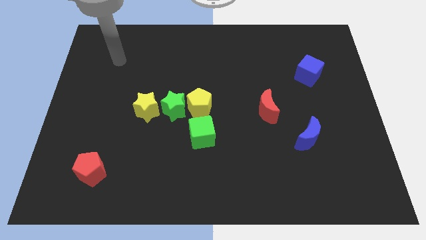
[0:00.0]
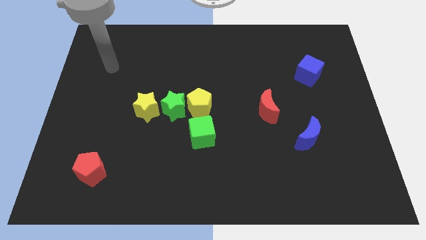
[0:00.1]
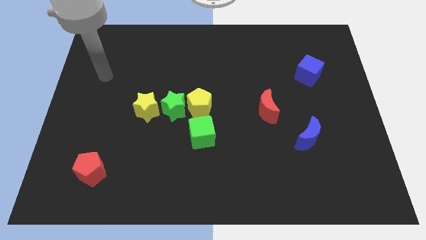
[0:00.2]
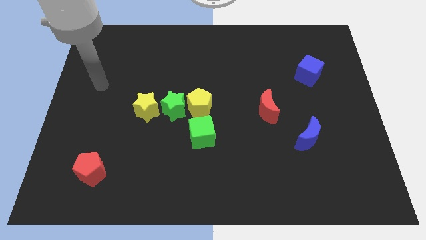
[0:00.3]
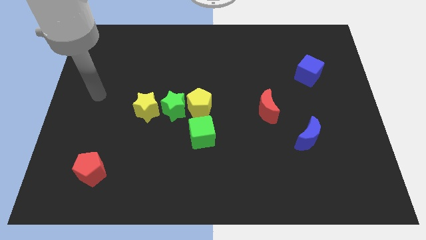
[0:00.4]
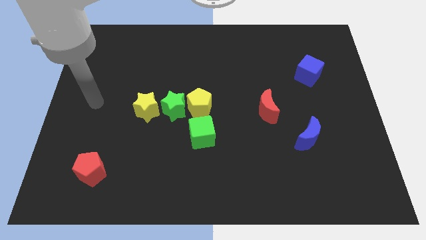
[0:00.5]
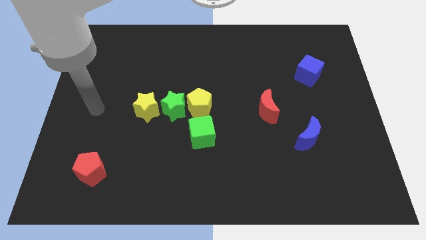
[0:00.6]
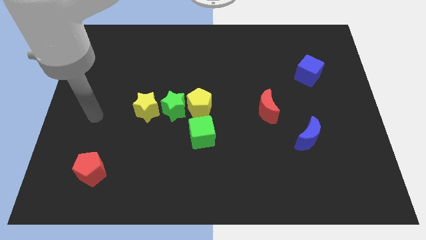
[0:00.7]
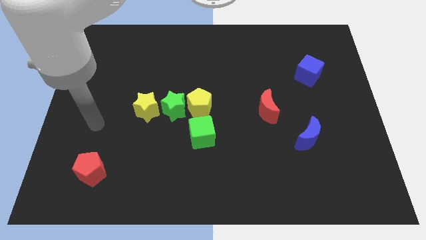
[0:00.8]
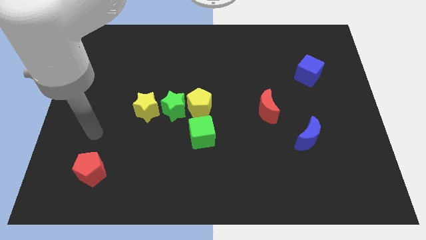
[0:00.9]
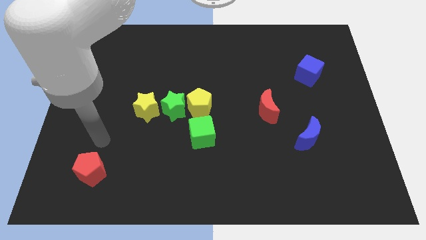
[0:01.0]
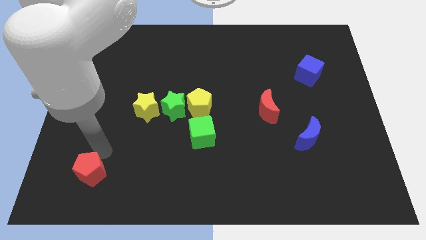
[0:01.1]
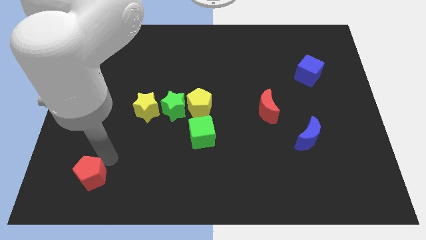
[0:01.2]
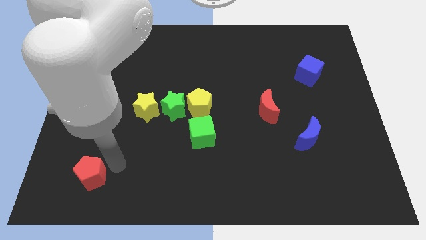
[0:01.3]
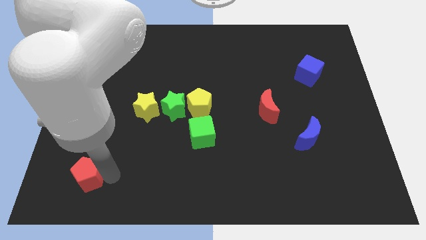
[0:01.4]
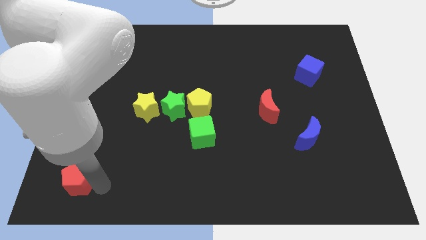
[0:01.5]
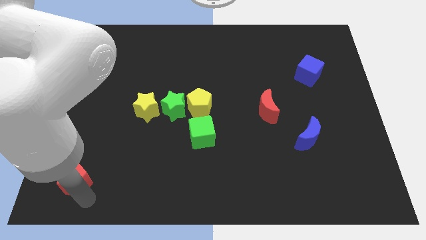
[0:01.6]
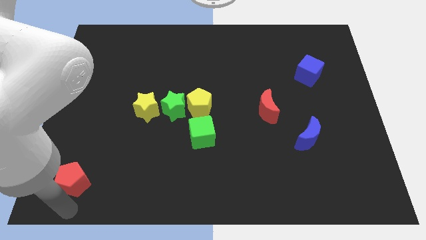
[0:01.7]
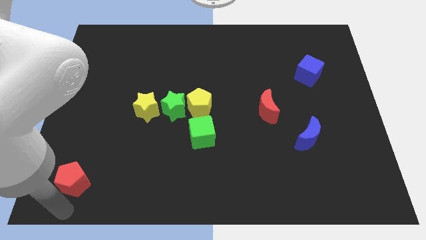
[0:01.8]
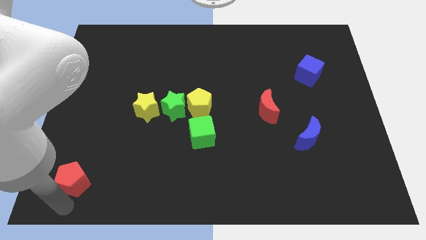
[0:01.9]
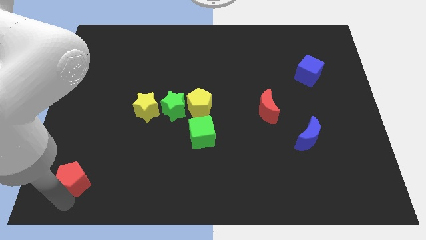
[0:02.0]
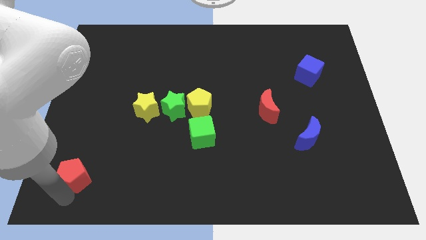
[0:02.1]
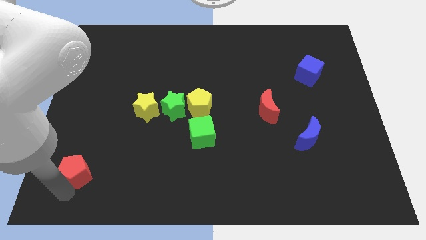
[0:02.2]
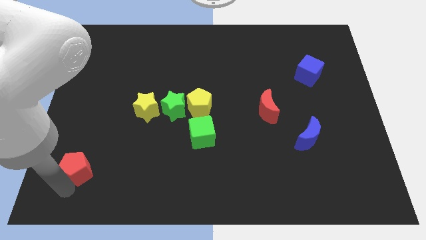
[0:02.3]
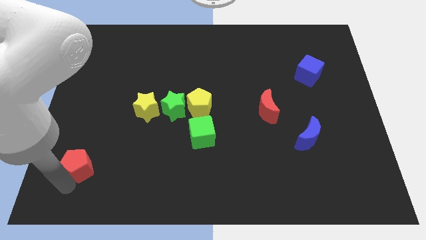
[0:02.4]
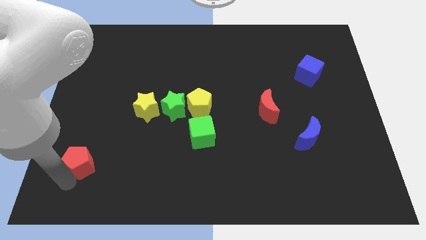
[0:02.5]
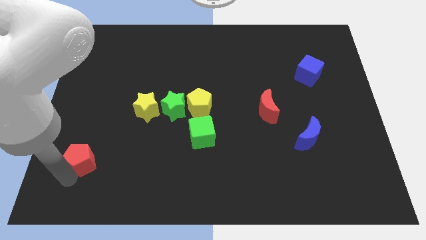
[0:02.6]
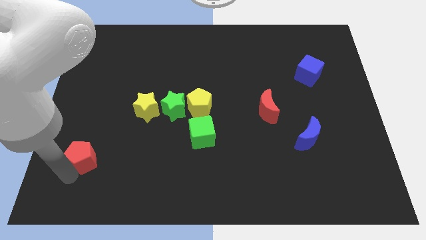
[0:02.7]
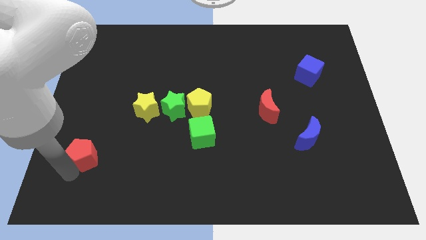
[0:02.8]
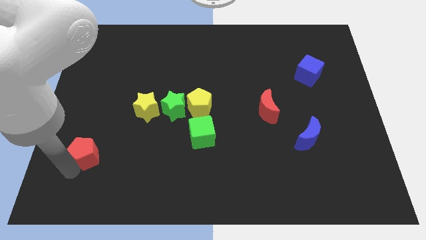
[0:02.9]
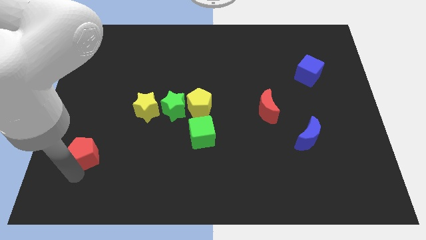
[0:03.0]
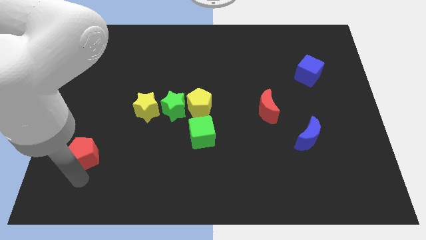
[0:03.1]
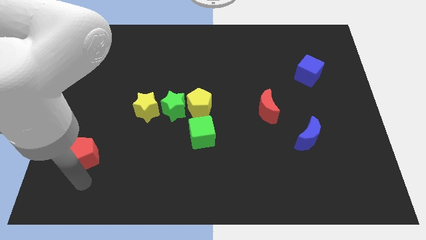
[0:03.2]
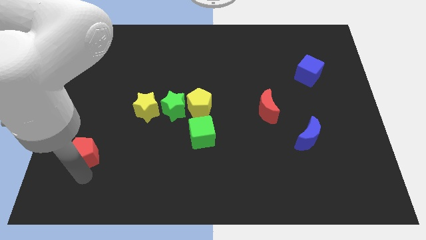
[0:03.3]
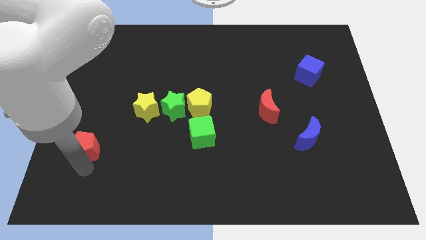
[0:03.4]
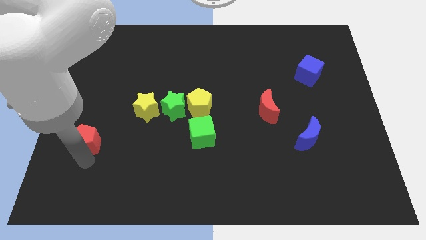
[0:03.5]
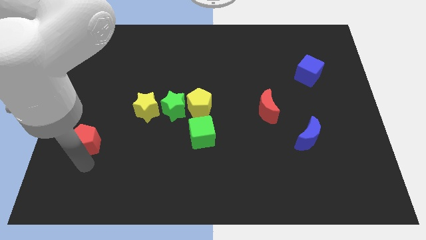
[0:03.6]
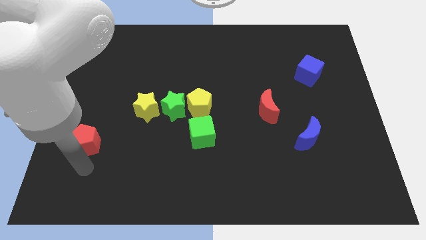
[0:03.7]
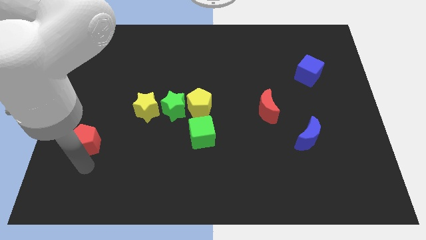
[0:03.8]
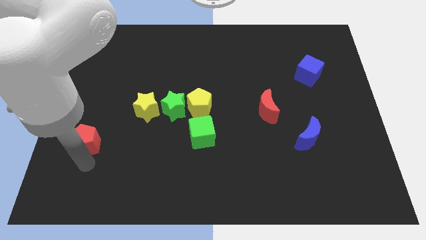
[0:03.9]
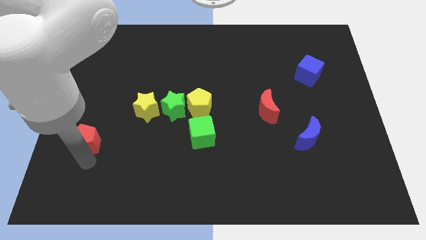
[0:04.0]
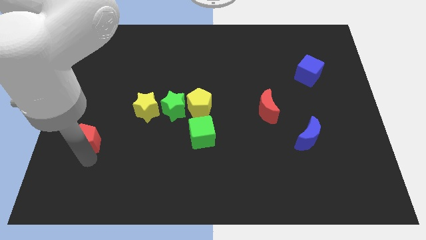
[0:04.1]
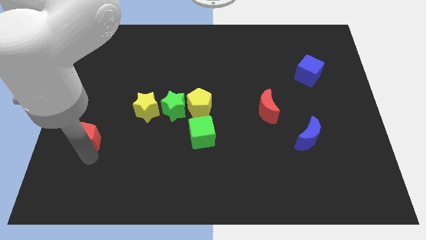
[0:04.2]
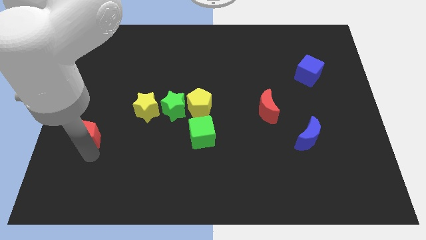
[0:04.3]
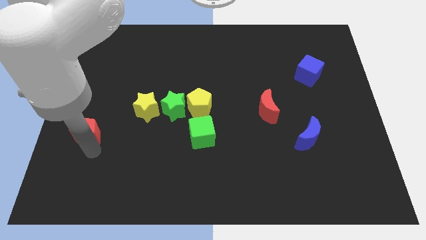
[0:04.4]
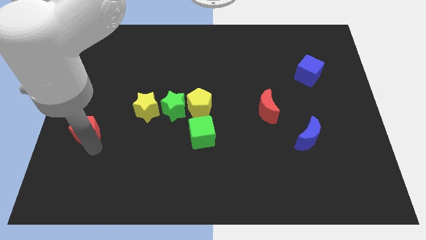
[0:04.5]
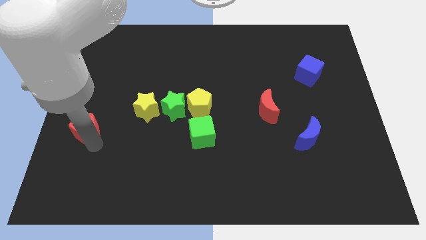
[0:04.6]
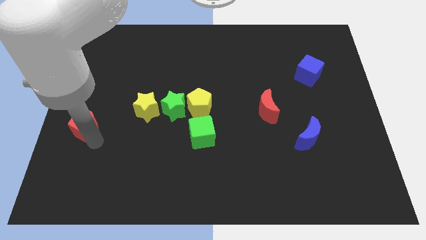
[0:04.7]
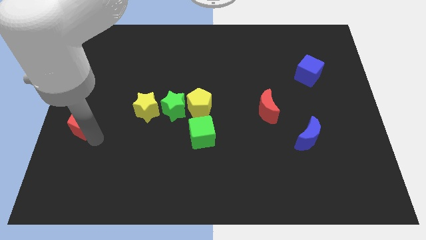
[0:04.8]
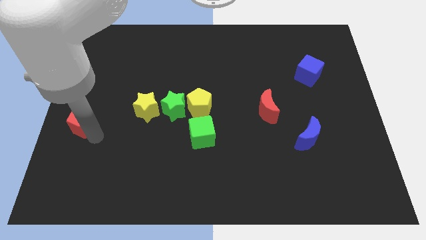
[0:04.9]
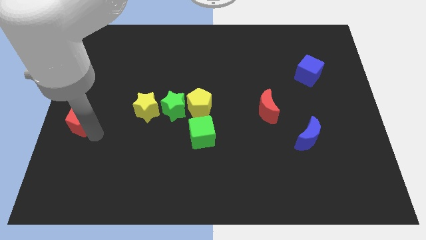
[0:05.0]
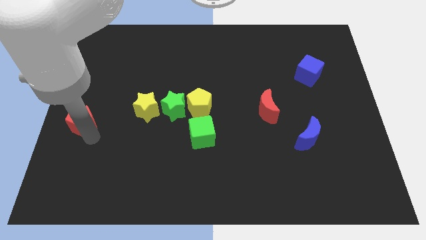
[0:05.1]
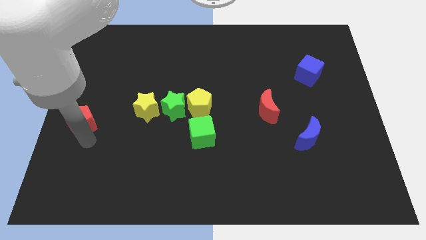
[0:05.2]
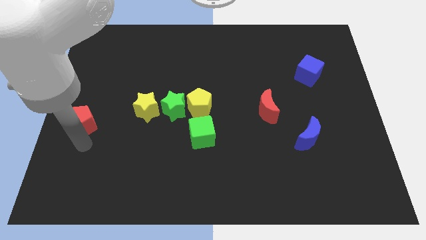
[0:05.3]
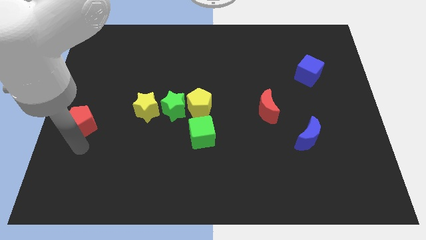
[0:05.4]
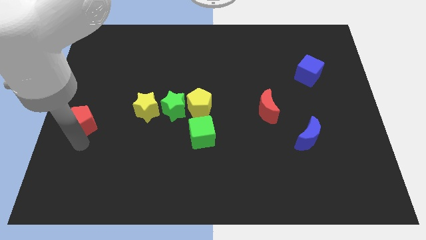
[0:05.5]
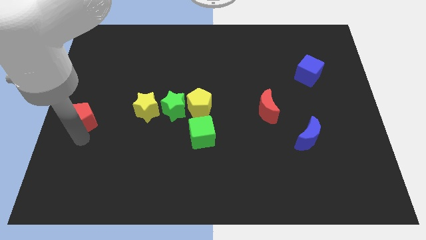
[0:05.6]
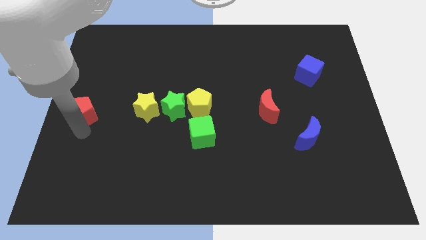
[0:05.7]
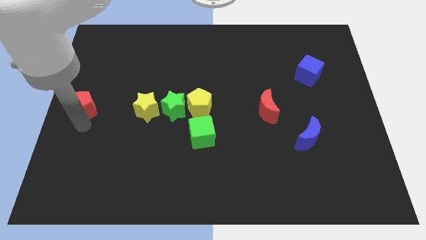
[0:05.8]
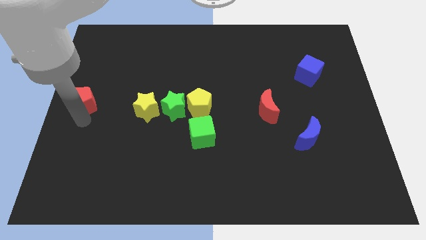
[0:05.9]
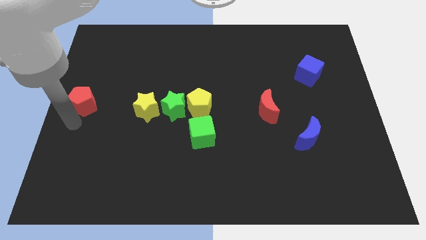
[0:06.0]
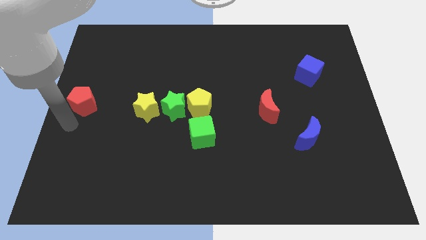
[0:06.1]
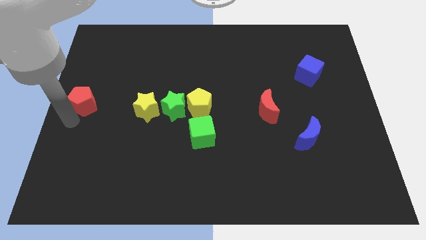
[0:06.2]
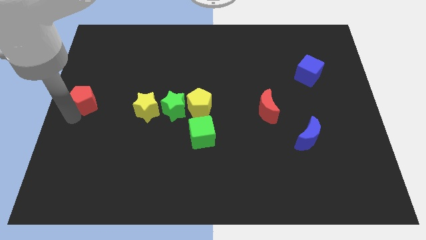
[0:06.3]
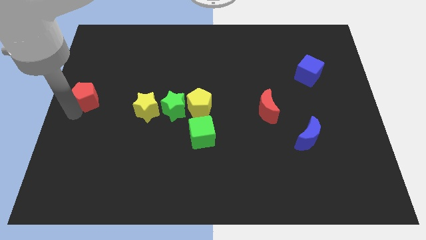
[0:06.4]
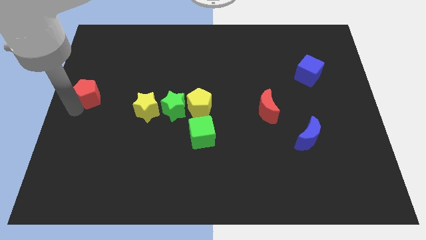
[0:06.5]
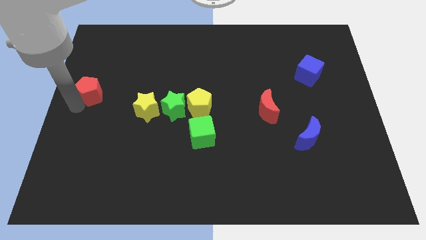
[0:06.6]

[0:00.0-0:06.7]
move the red pentagon upwards

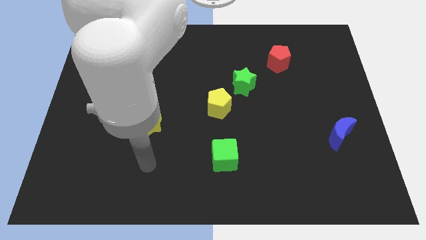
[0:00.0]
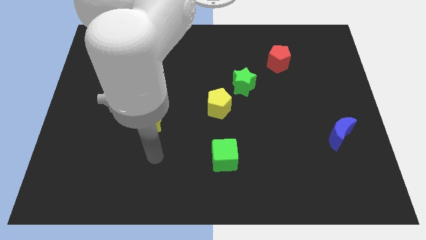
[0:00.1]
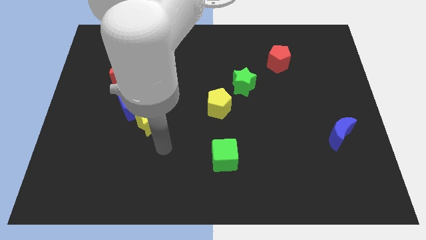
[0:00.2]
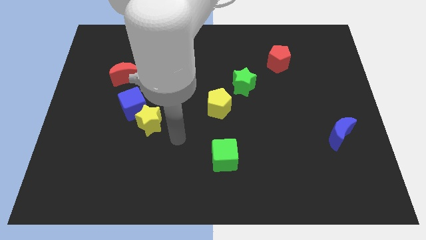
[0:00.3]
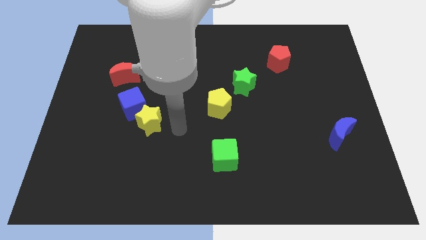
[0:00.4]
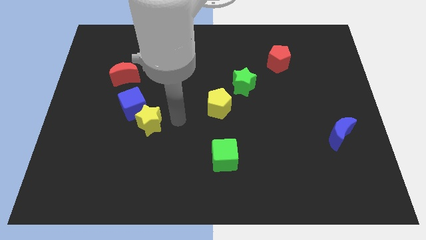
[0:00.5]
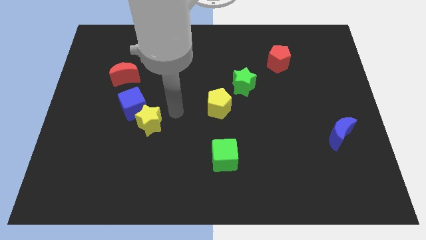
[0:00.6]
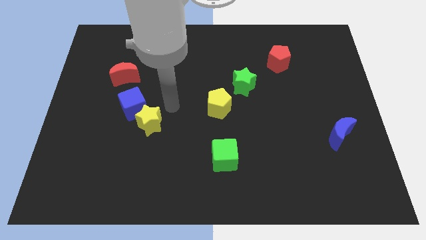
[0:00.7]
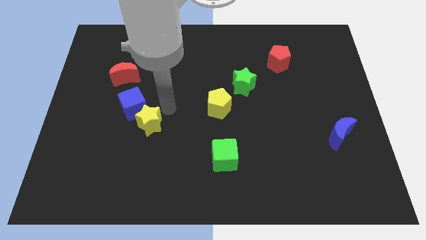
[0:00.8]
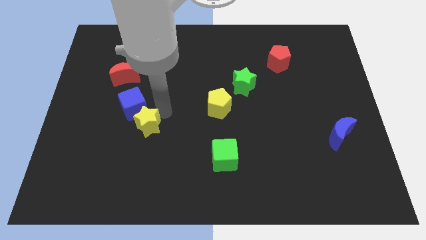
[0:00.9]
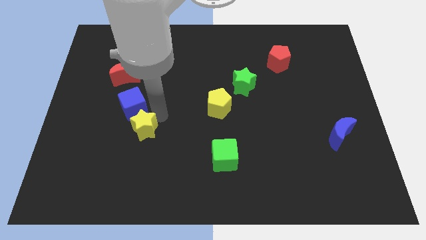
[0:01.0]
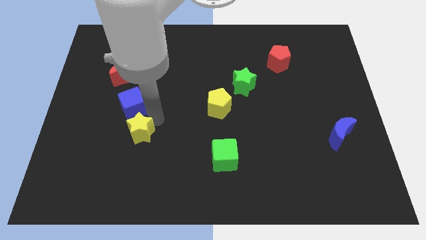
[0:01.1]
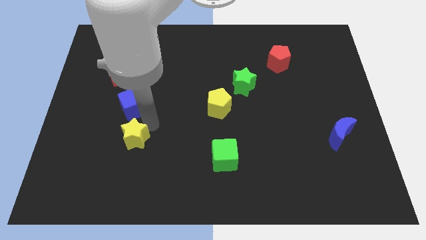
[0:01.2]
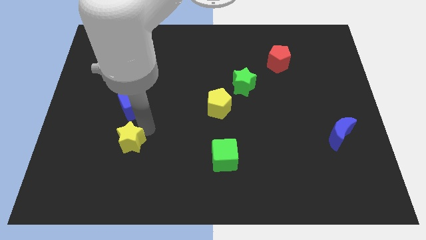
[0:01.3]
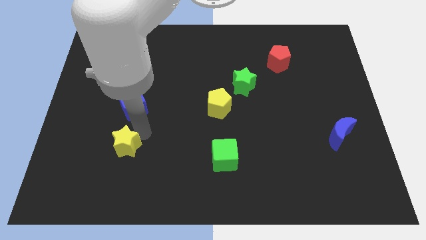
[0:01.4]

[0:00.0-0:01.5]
move the yellow star down and to the left diagonally a little

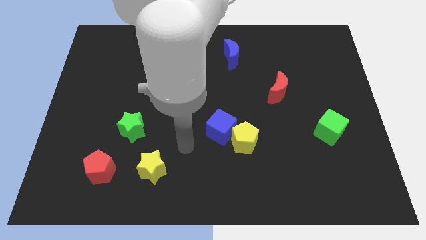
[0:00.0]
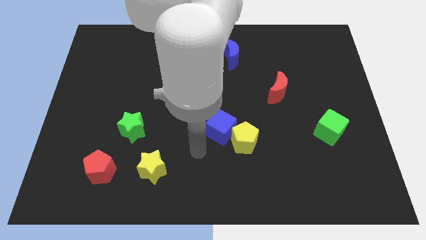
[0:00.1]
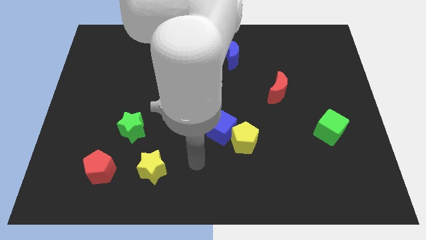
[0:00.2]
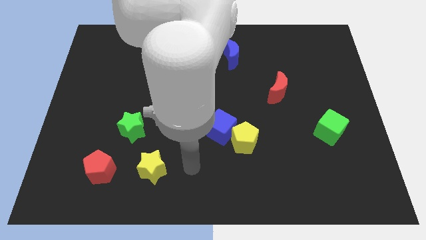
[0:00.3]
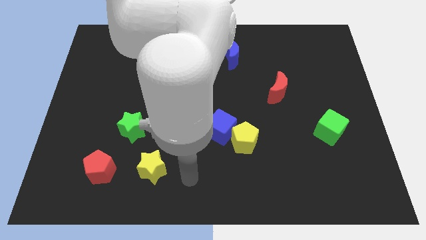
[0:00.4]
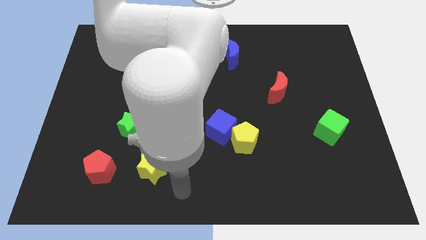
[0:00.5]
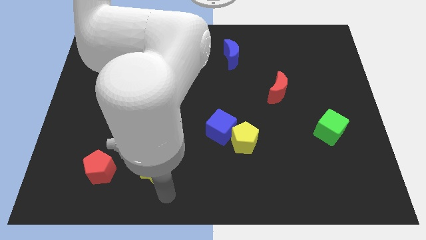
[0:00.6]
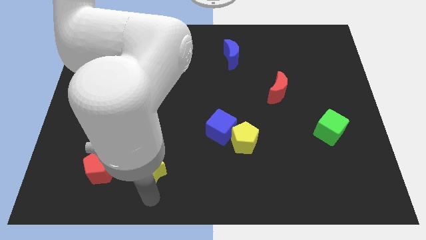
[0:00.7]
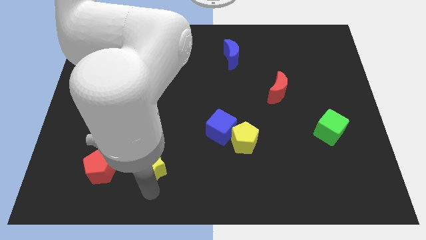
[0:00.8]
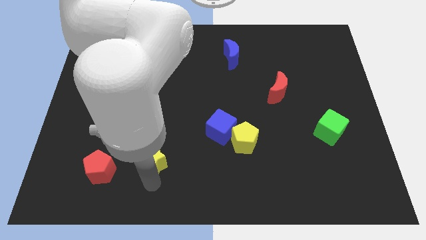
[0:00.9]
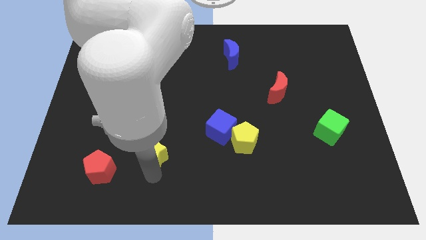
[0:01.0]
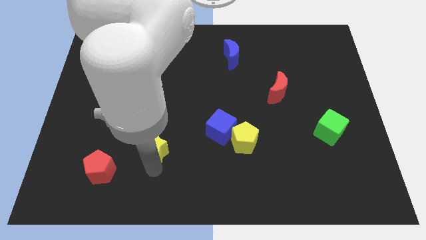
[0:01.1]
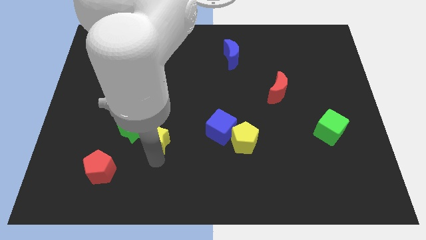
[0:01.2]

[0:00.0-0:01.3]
slide the yellow star slightly upwards
